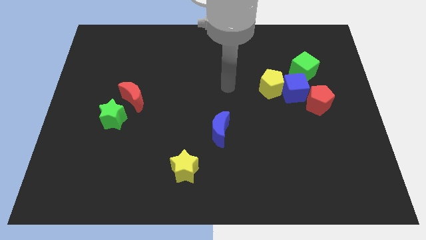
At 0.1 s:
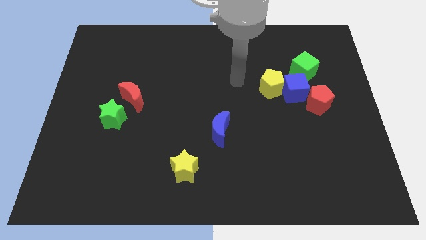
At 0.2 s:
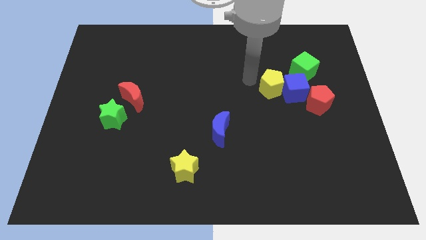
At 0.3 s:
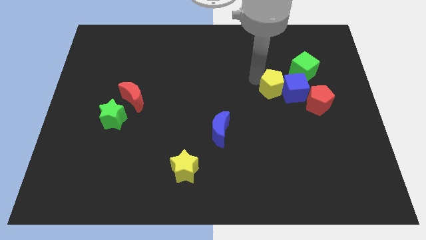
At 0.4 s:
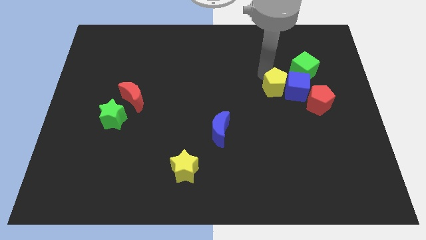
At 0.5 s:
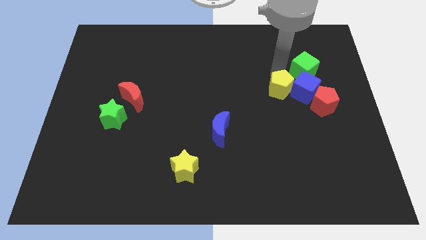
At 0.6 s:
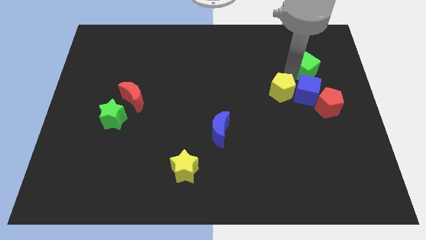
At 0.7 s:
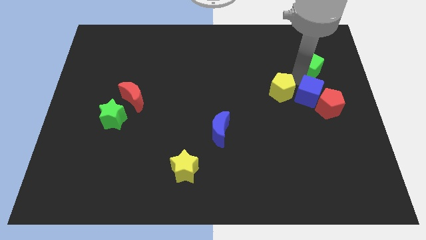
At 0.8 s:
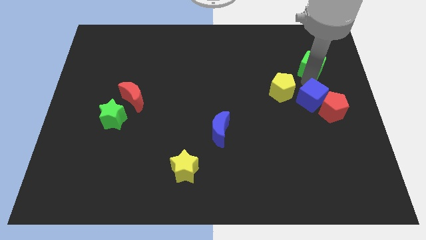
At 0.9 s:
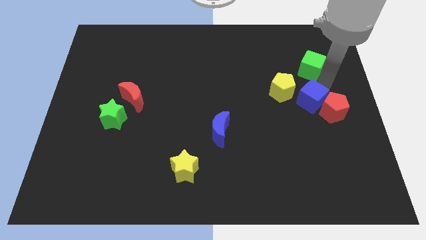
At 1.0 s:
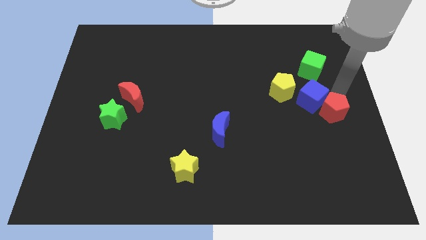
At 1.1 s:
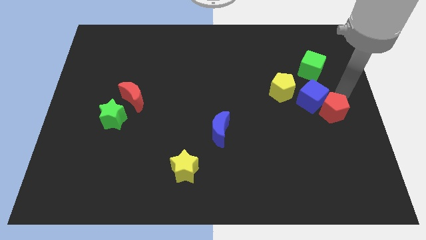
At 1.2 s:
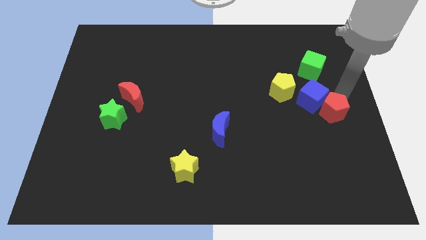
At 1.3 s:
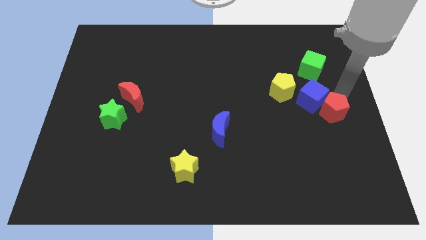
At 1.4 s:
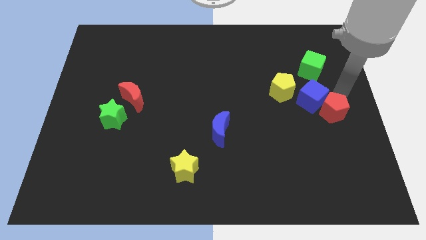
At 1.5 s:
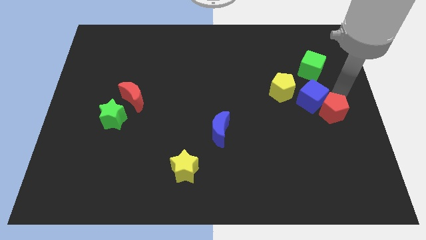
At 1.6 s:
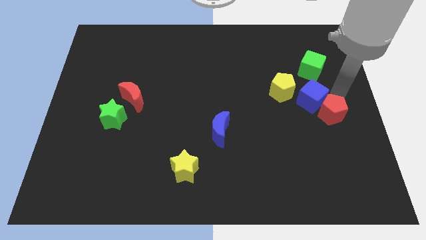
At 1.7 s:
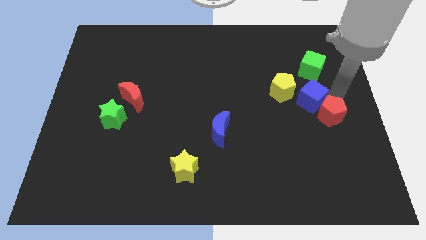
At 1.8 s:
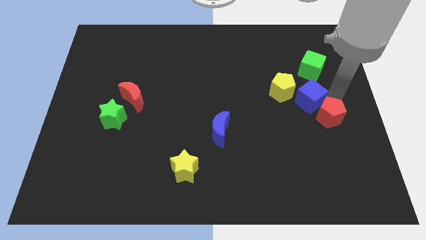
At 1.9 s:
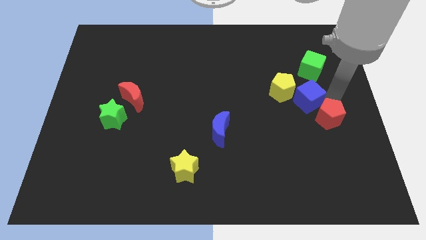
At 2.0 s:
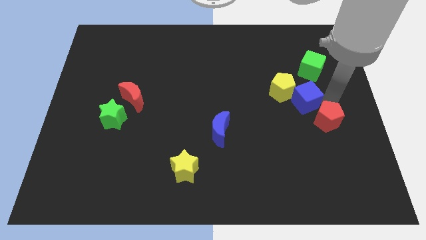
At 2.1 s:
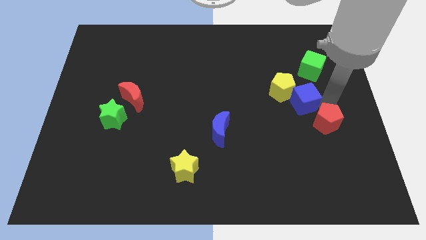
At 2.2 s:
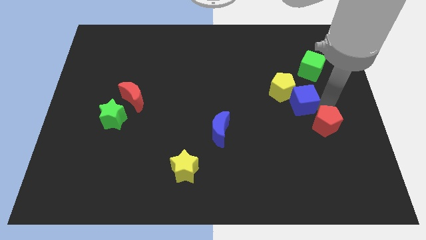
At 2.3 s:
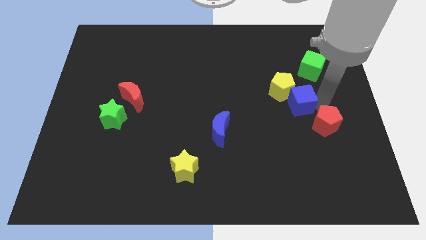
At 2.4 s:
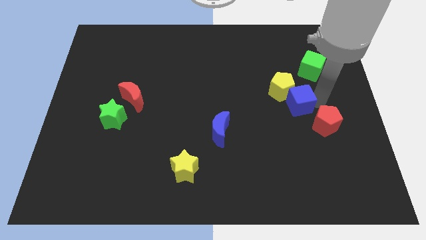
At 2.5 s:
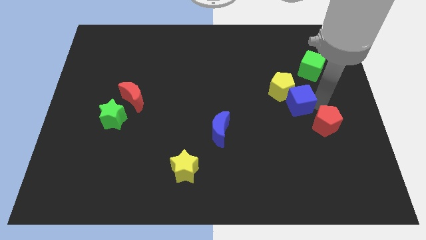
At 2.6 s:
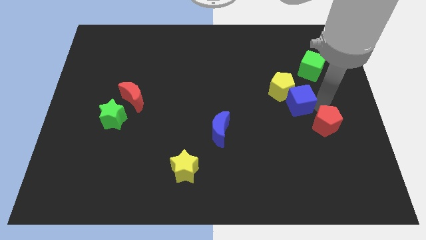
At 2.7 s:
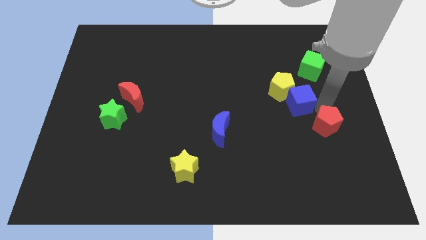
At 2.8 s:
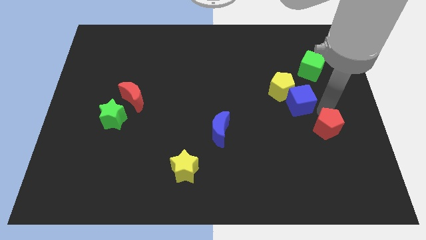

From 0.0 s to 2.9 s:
slide the red pentagon downwards a little

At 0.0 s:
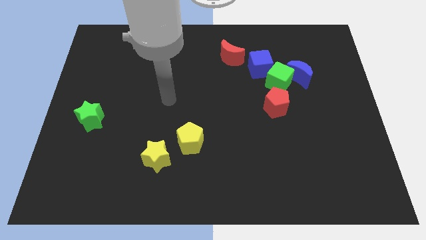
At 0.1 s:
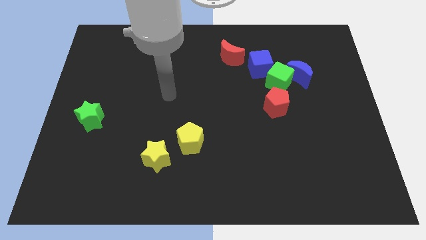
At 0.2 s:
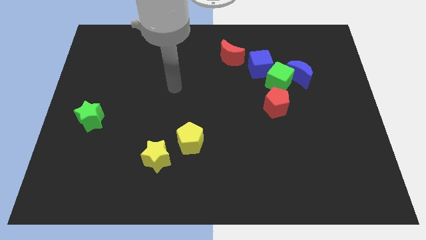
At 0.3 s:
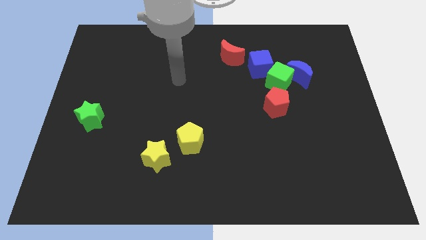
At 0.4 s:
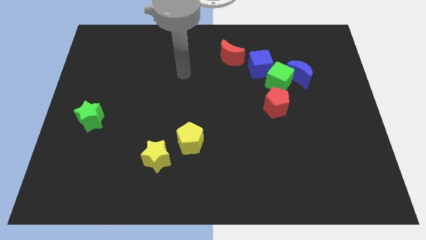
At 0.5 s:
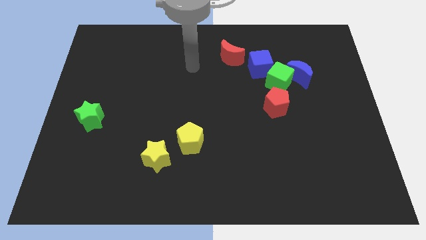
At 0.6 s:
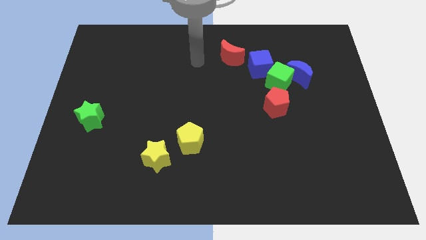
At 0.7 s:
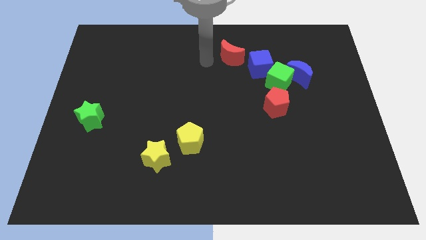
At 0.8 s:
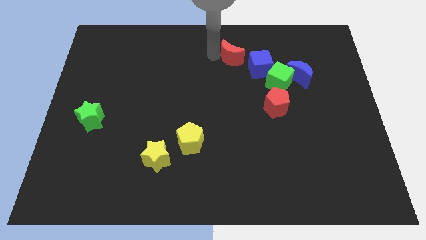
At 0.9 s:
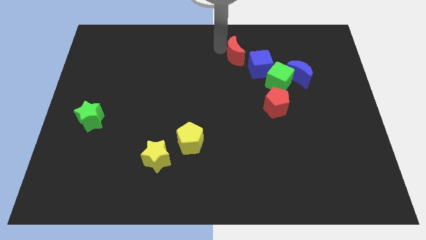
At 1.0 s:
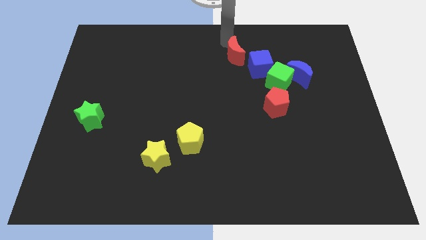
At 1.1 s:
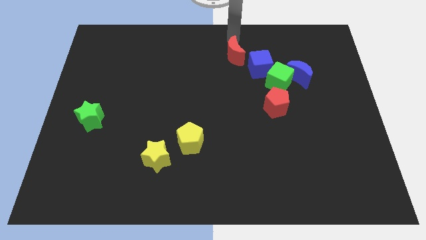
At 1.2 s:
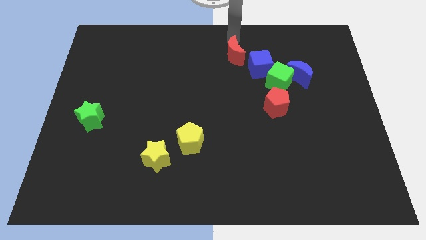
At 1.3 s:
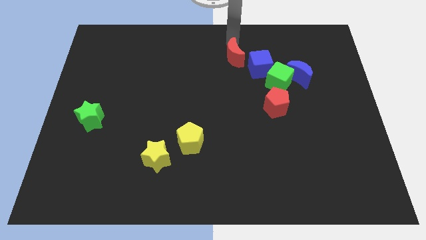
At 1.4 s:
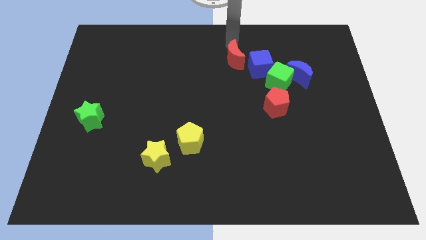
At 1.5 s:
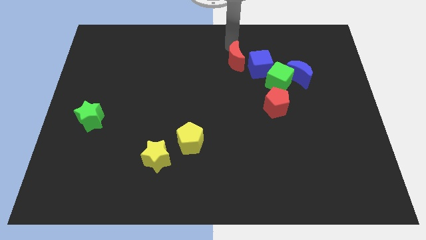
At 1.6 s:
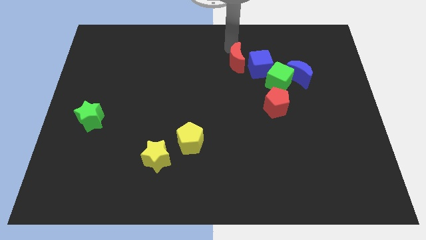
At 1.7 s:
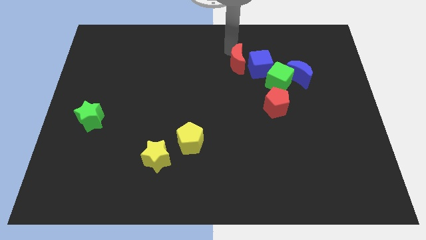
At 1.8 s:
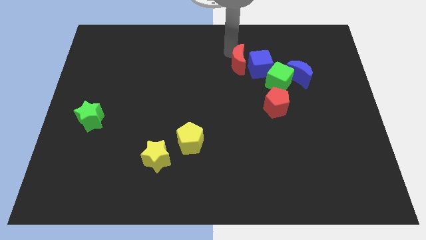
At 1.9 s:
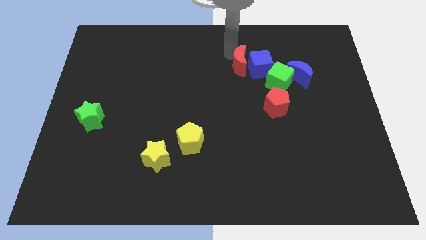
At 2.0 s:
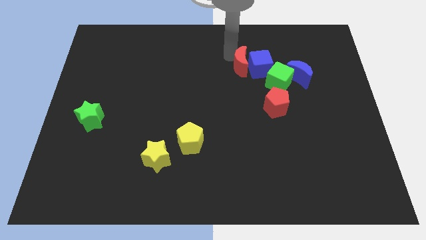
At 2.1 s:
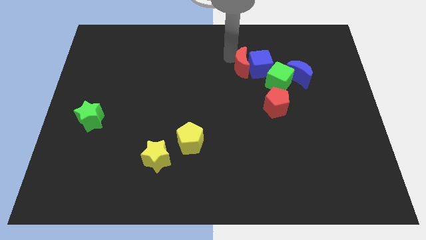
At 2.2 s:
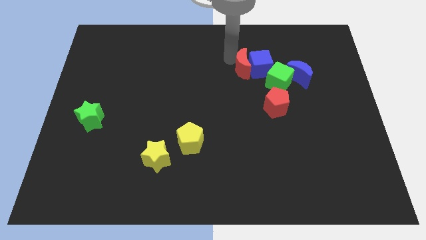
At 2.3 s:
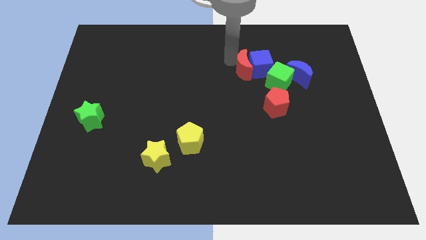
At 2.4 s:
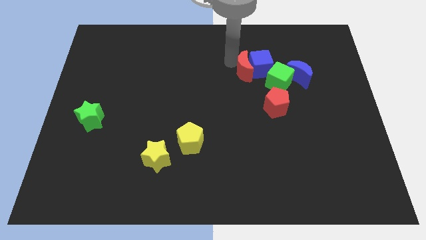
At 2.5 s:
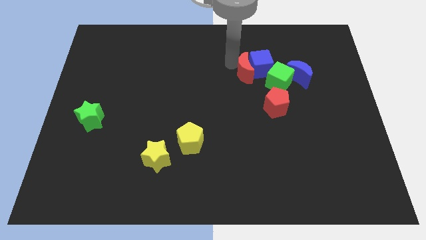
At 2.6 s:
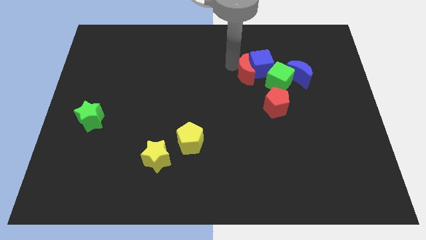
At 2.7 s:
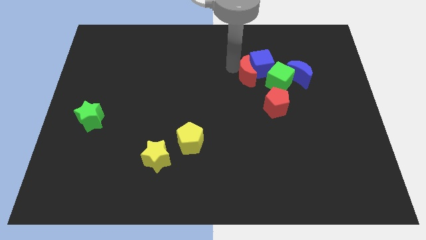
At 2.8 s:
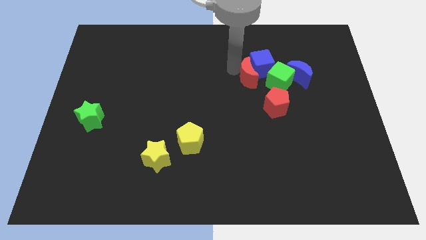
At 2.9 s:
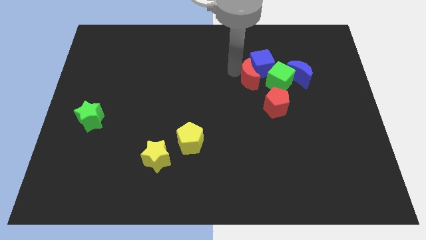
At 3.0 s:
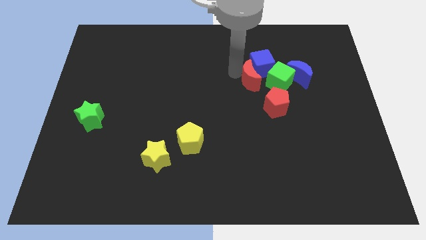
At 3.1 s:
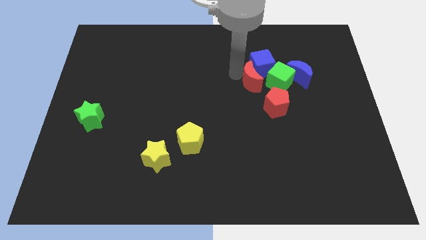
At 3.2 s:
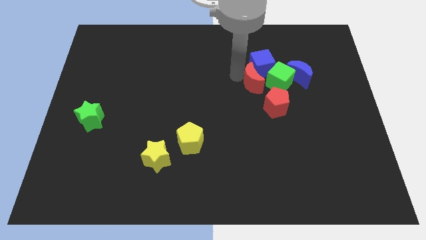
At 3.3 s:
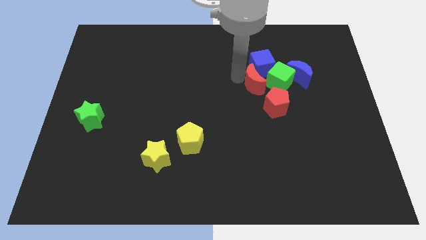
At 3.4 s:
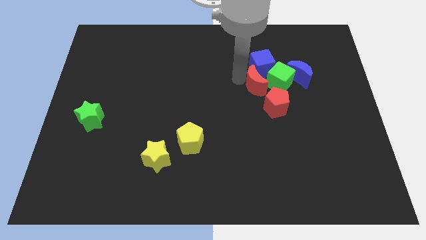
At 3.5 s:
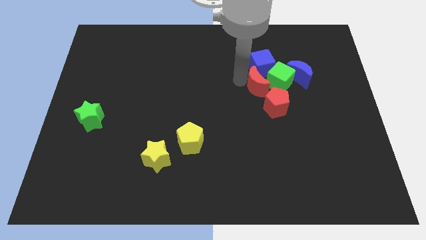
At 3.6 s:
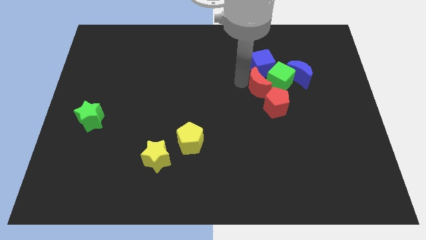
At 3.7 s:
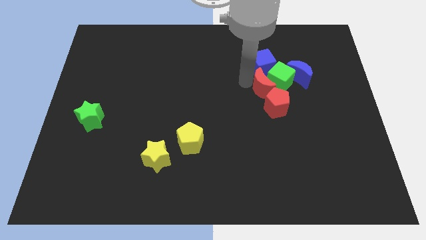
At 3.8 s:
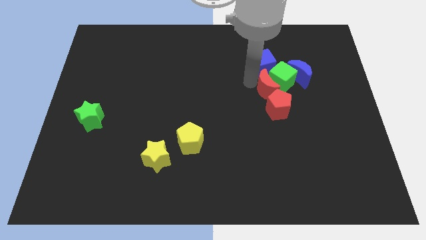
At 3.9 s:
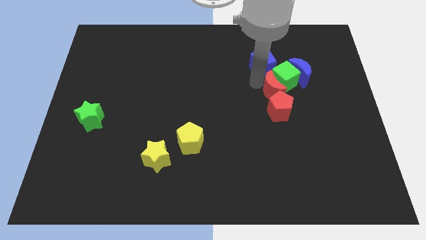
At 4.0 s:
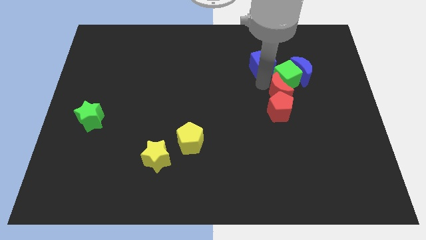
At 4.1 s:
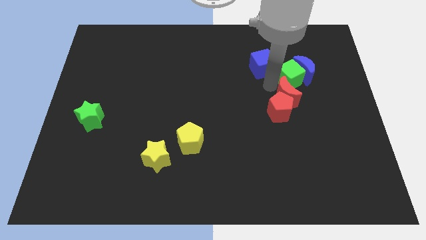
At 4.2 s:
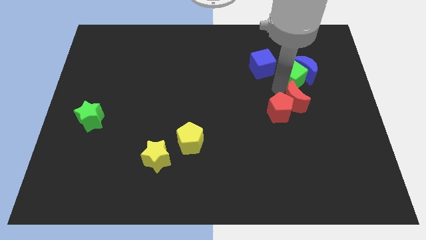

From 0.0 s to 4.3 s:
move the red moon down and to the right

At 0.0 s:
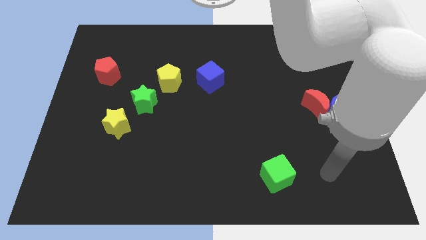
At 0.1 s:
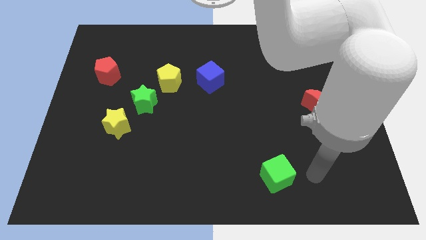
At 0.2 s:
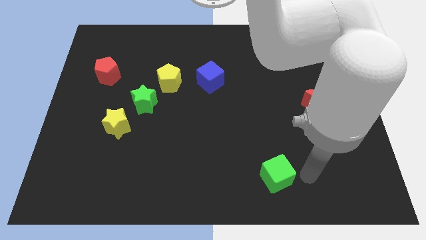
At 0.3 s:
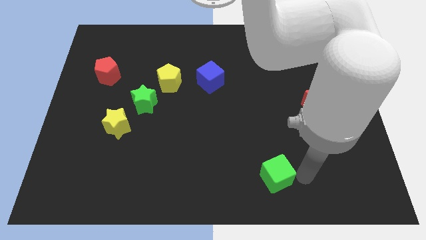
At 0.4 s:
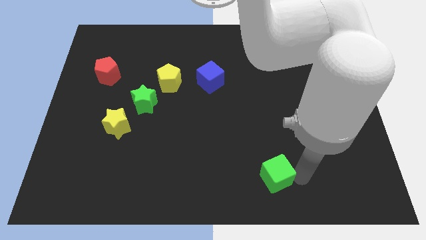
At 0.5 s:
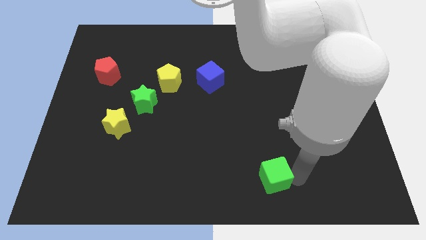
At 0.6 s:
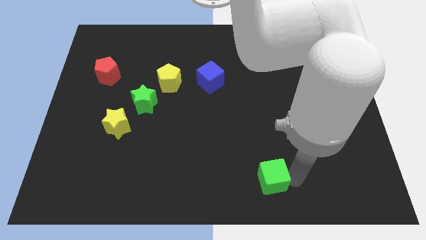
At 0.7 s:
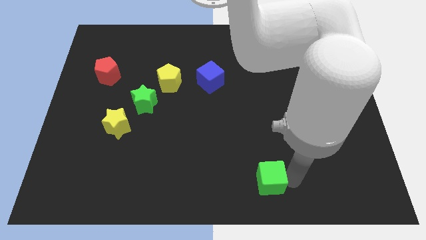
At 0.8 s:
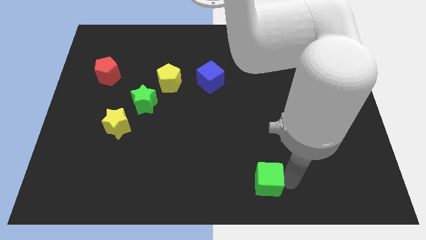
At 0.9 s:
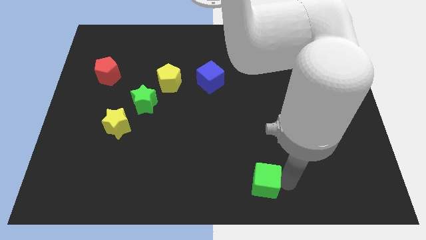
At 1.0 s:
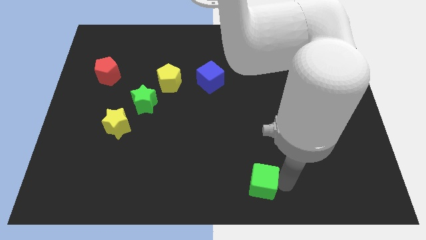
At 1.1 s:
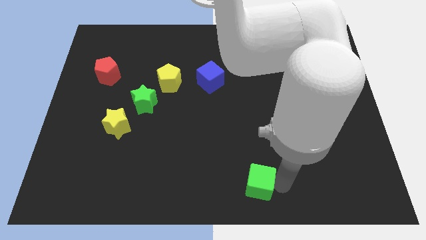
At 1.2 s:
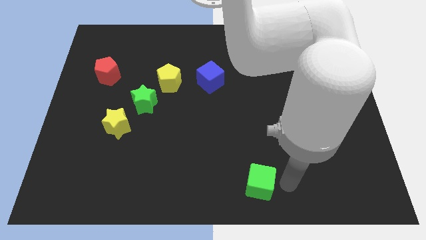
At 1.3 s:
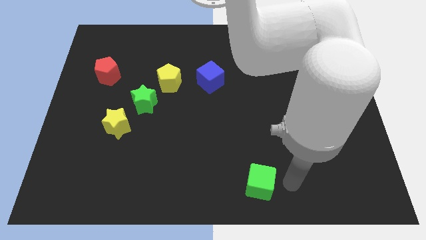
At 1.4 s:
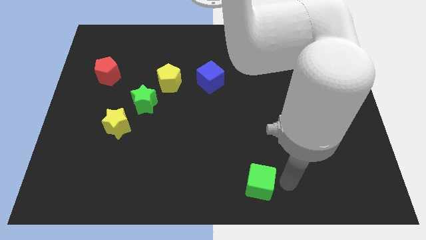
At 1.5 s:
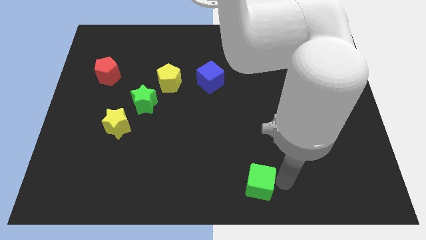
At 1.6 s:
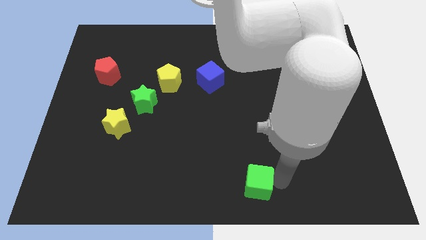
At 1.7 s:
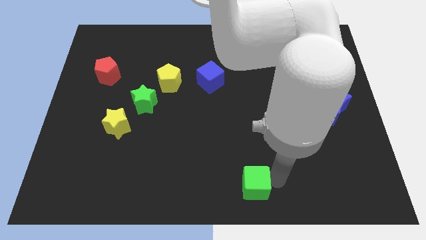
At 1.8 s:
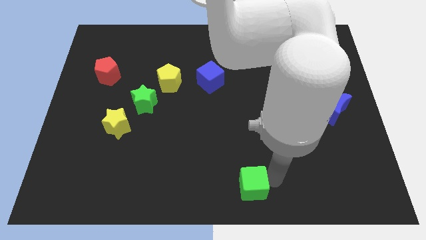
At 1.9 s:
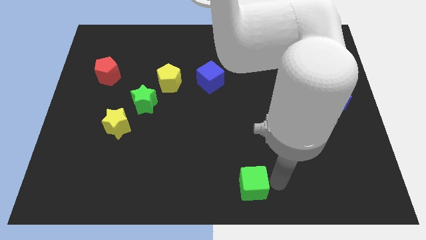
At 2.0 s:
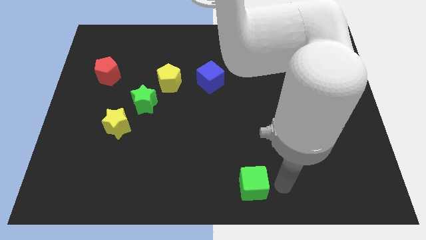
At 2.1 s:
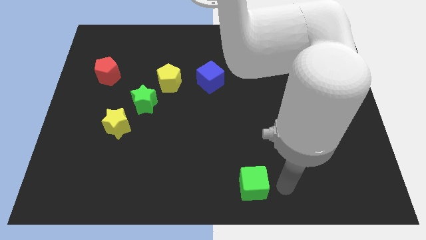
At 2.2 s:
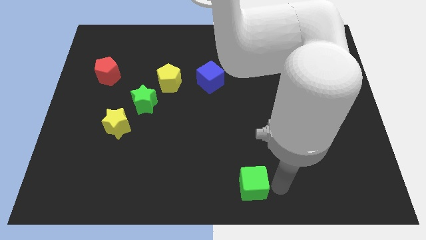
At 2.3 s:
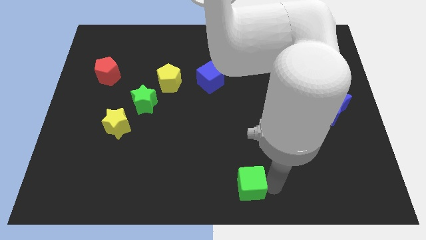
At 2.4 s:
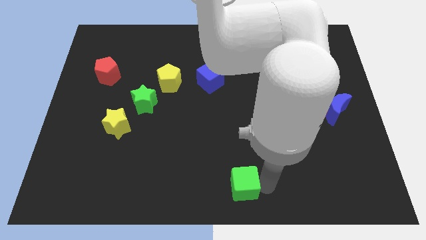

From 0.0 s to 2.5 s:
move the green cube to the left slightly
